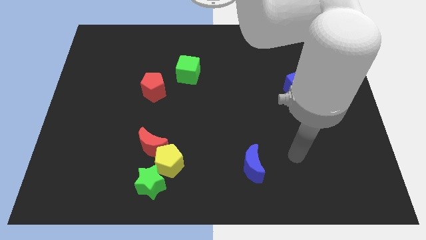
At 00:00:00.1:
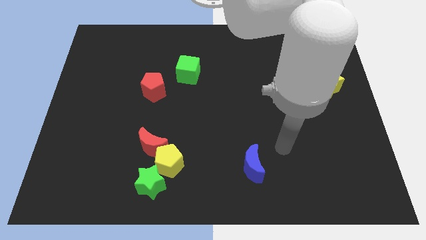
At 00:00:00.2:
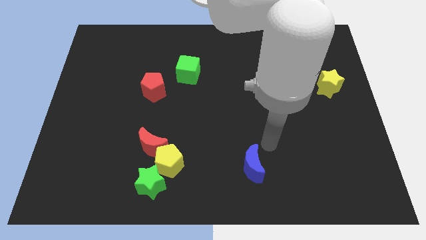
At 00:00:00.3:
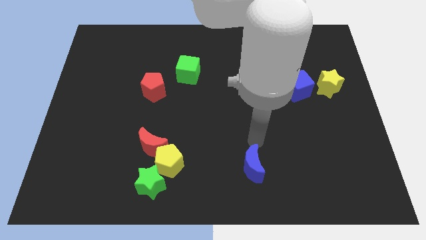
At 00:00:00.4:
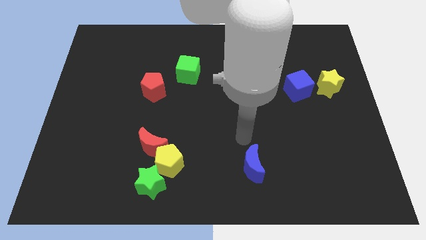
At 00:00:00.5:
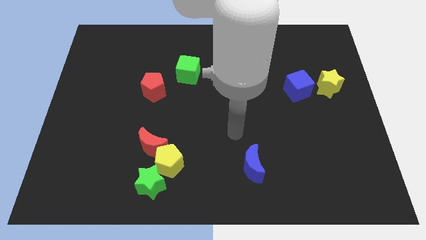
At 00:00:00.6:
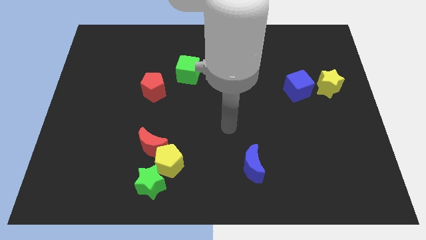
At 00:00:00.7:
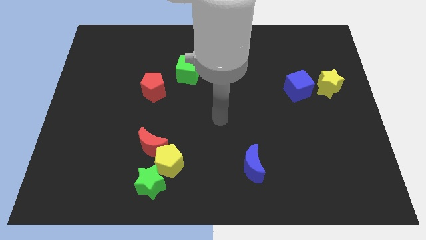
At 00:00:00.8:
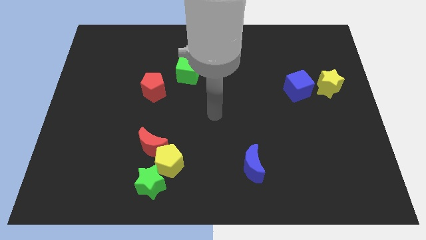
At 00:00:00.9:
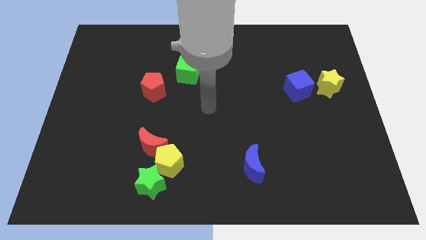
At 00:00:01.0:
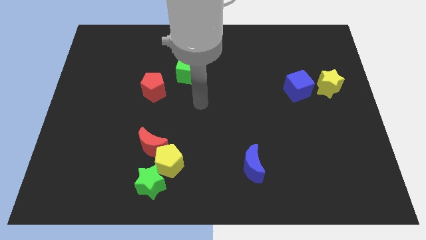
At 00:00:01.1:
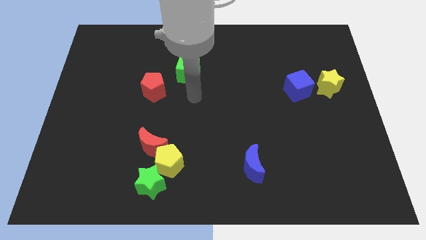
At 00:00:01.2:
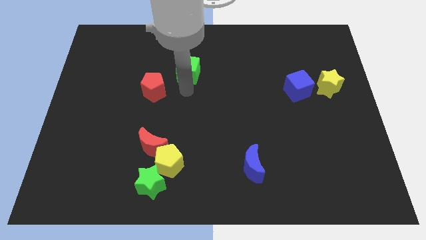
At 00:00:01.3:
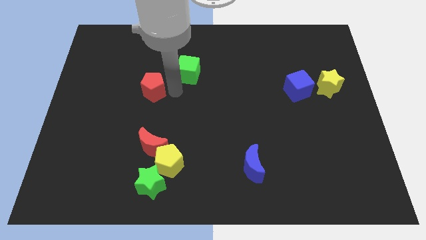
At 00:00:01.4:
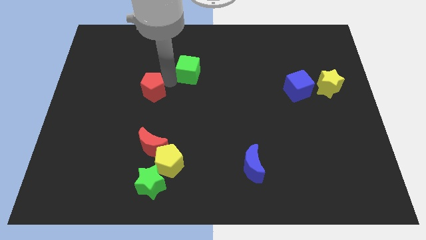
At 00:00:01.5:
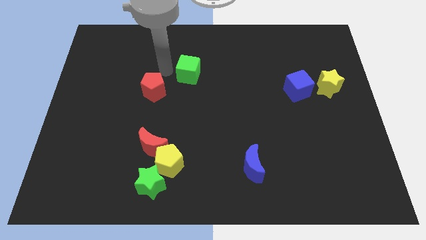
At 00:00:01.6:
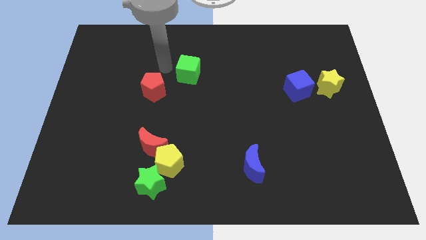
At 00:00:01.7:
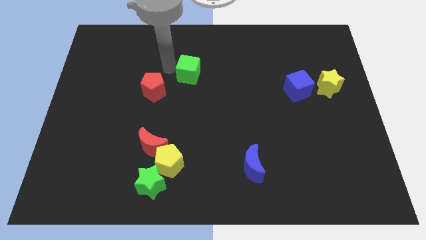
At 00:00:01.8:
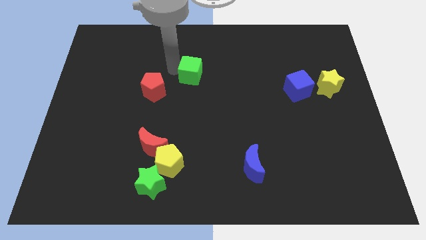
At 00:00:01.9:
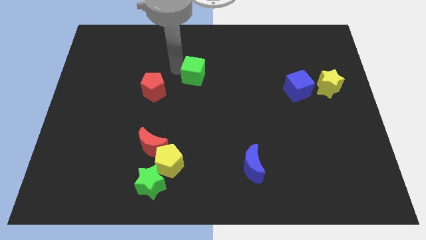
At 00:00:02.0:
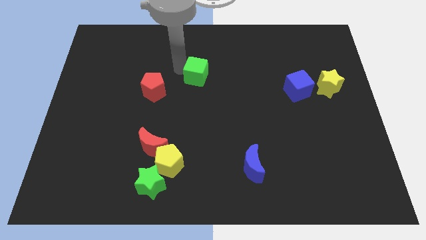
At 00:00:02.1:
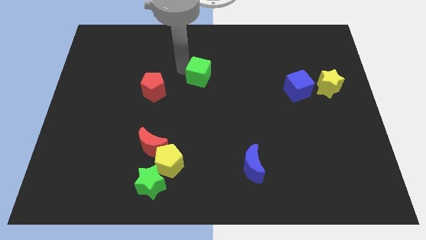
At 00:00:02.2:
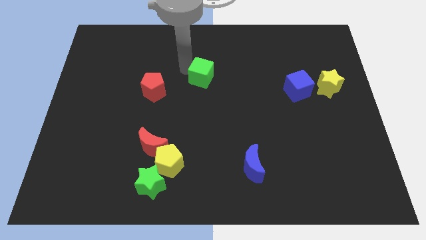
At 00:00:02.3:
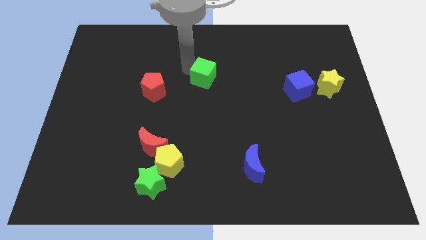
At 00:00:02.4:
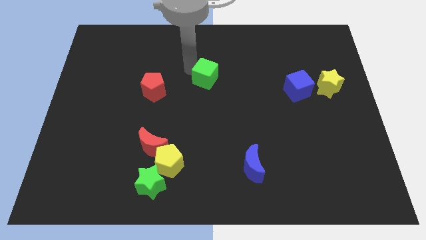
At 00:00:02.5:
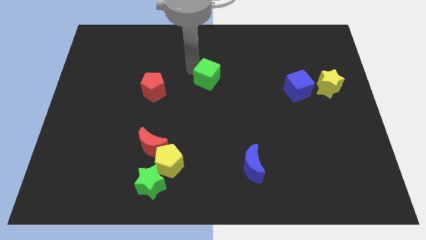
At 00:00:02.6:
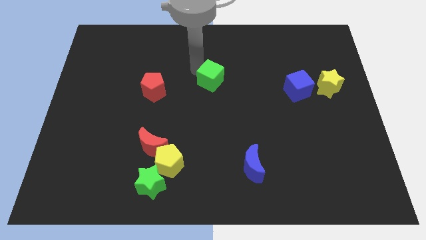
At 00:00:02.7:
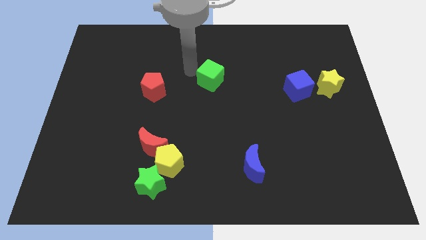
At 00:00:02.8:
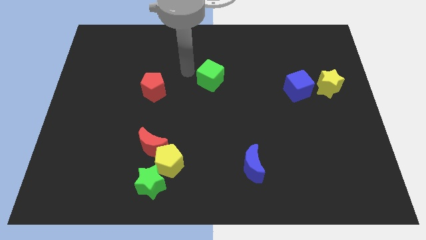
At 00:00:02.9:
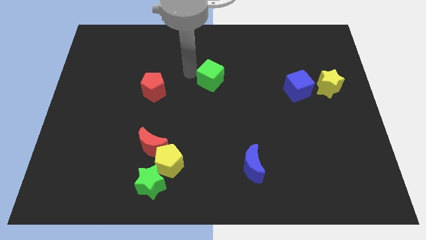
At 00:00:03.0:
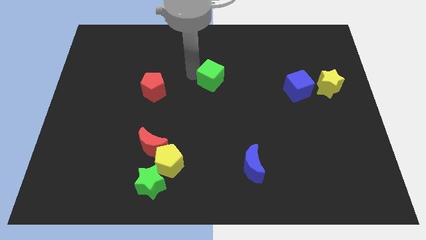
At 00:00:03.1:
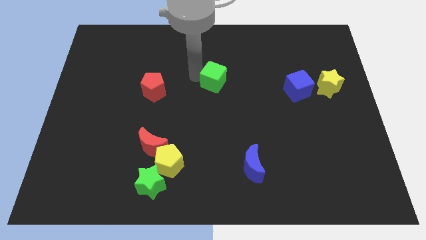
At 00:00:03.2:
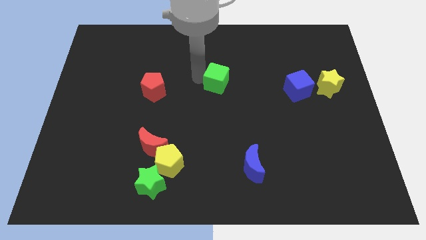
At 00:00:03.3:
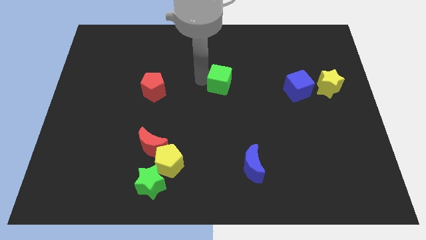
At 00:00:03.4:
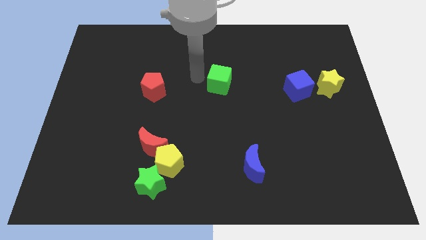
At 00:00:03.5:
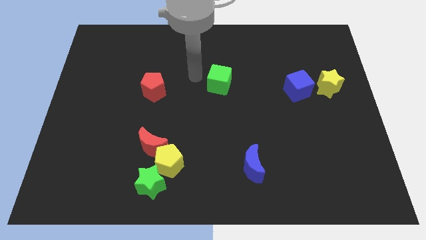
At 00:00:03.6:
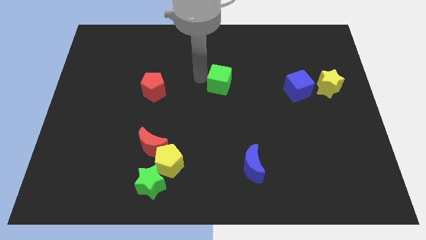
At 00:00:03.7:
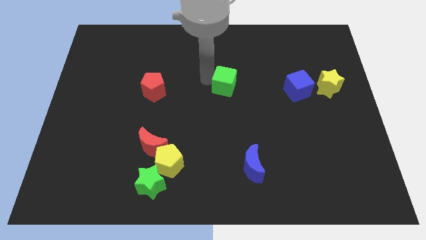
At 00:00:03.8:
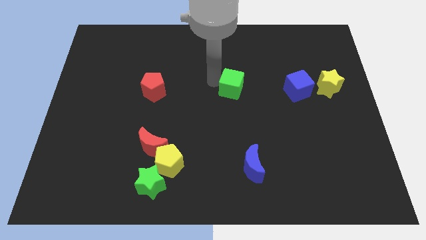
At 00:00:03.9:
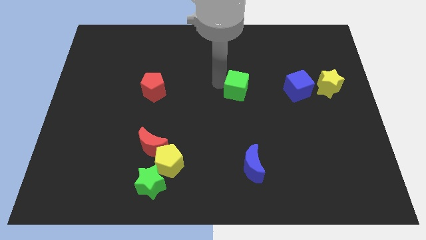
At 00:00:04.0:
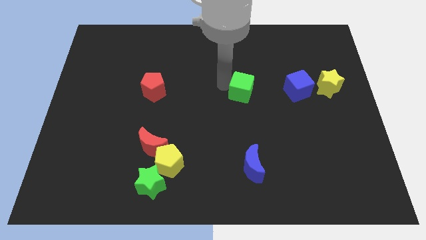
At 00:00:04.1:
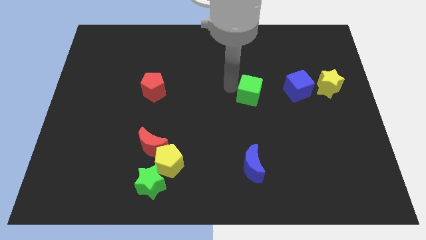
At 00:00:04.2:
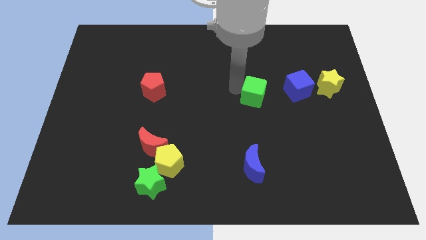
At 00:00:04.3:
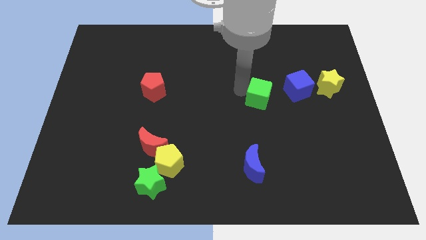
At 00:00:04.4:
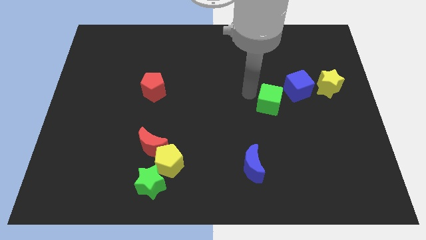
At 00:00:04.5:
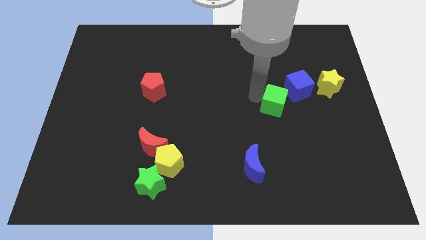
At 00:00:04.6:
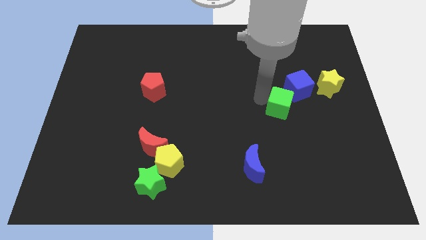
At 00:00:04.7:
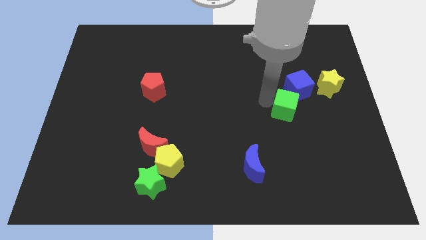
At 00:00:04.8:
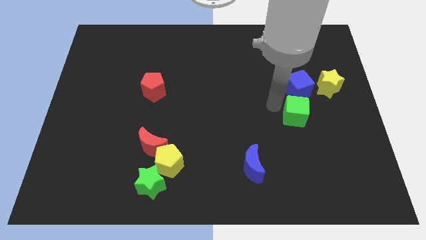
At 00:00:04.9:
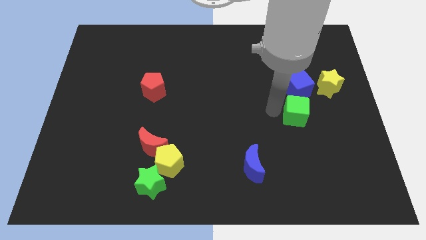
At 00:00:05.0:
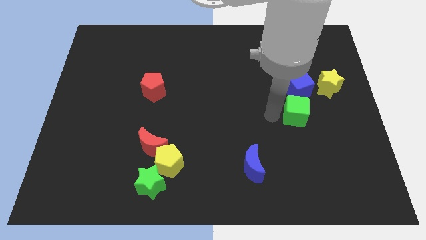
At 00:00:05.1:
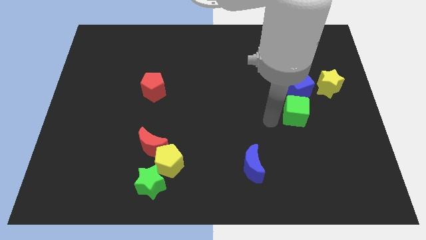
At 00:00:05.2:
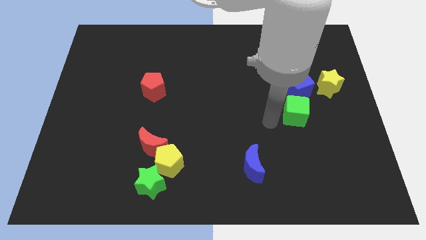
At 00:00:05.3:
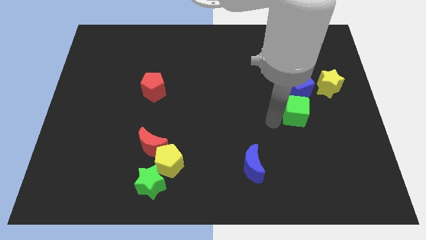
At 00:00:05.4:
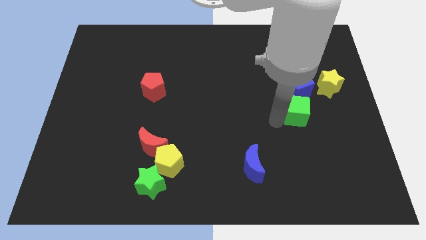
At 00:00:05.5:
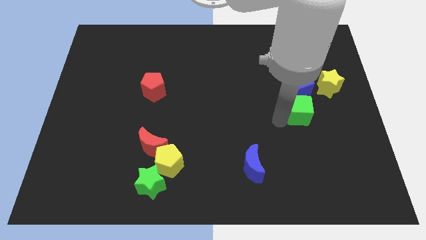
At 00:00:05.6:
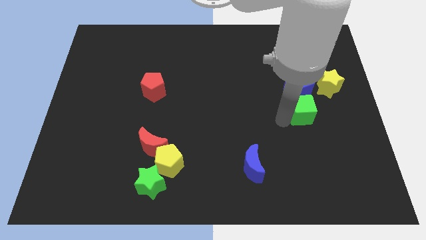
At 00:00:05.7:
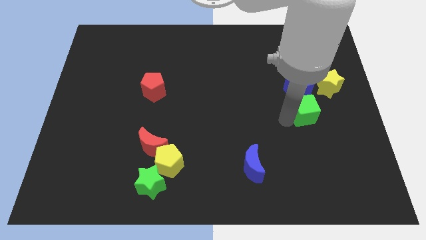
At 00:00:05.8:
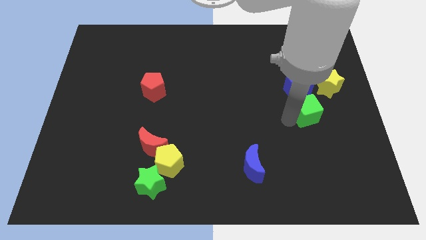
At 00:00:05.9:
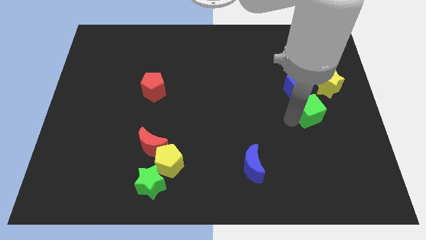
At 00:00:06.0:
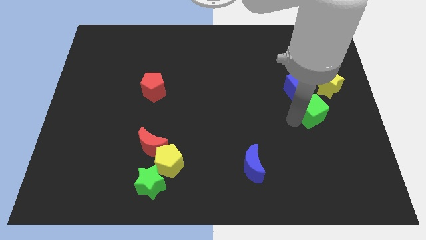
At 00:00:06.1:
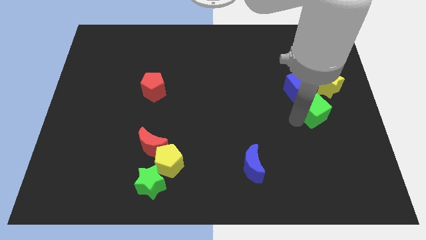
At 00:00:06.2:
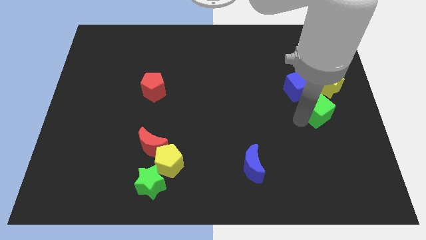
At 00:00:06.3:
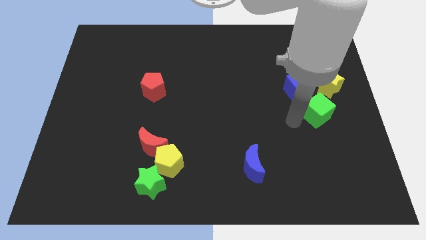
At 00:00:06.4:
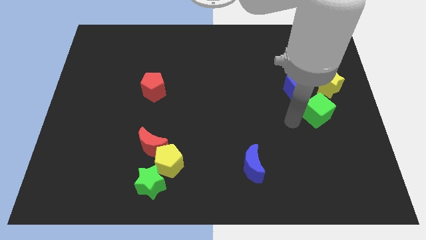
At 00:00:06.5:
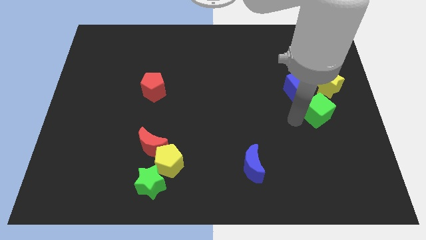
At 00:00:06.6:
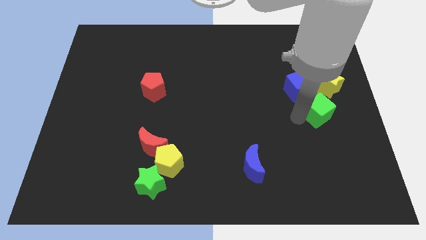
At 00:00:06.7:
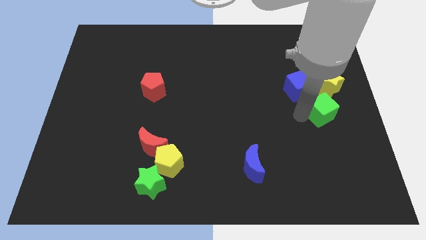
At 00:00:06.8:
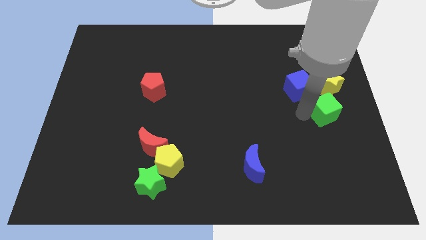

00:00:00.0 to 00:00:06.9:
push the green cube to the center right
